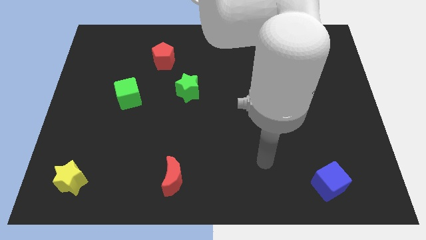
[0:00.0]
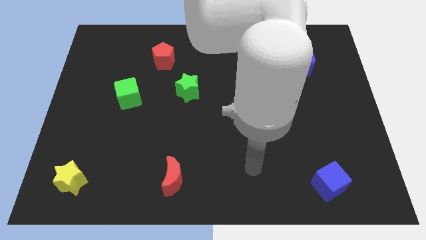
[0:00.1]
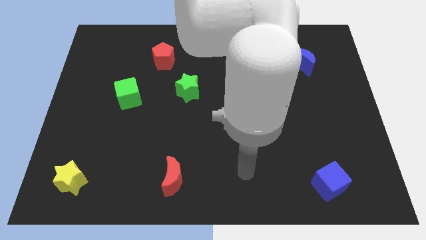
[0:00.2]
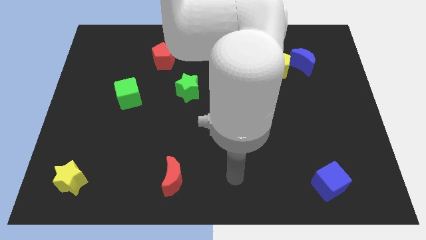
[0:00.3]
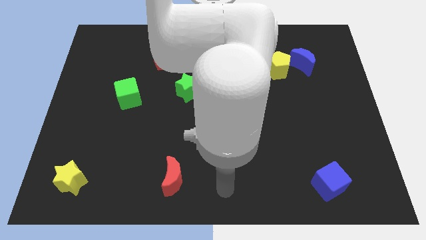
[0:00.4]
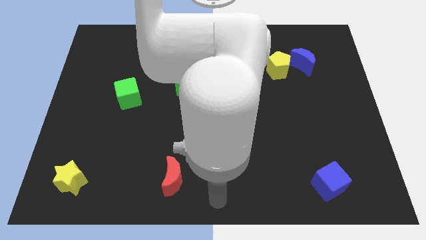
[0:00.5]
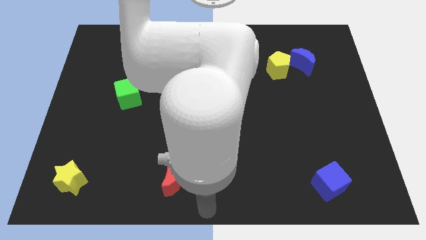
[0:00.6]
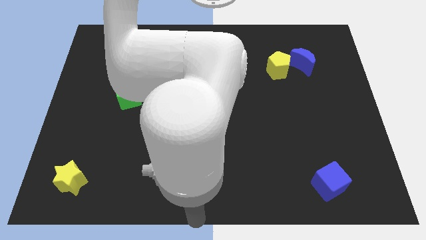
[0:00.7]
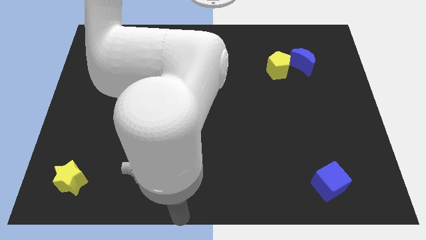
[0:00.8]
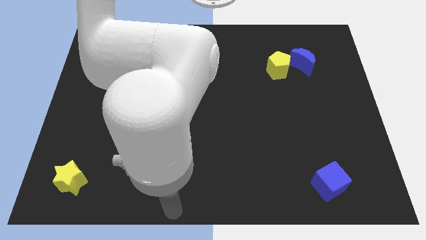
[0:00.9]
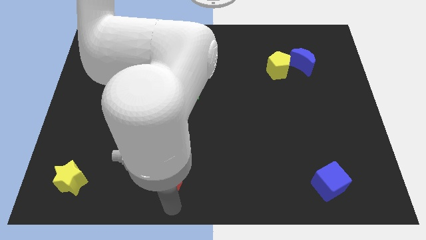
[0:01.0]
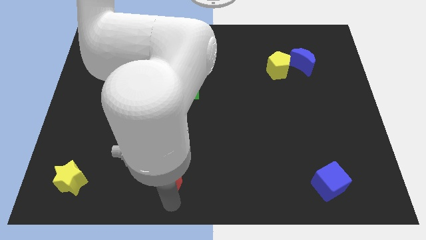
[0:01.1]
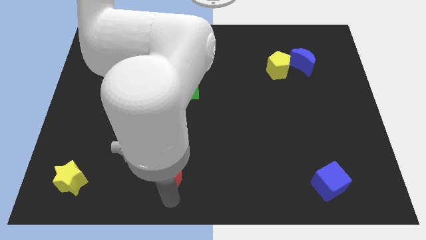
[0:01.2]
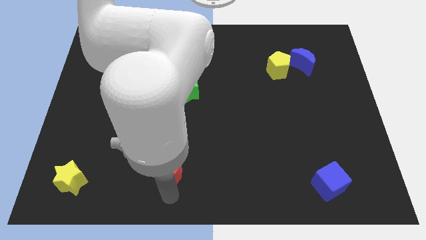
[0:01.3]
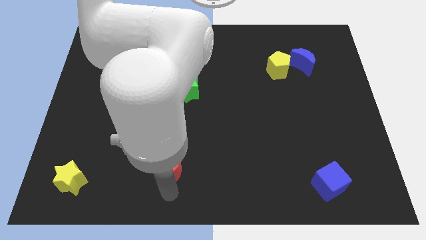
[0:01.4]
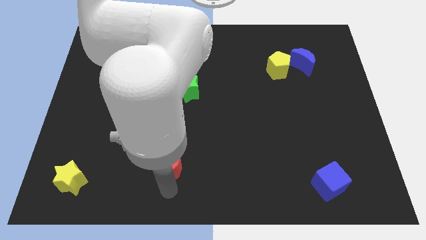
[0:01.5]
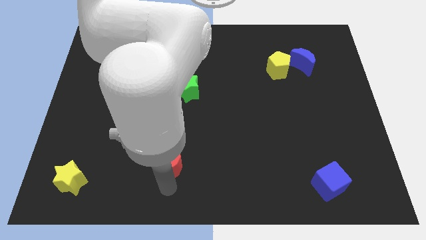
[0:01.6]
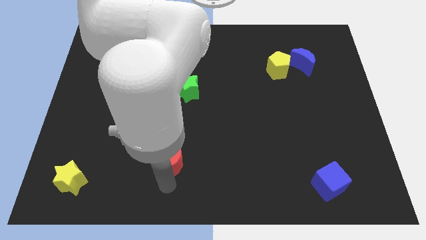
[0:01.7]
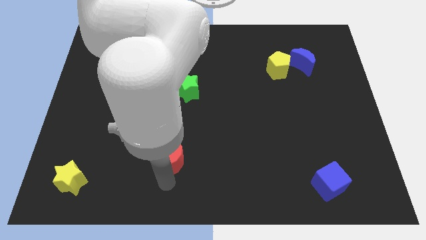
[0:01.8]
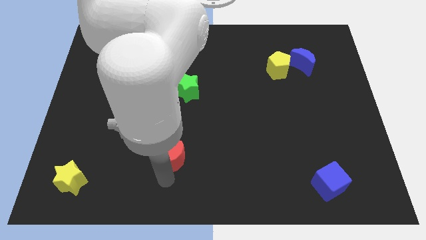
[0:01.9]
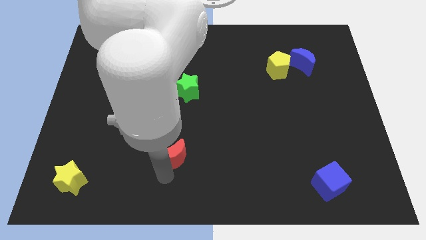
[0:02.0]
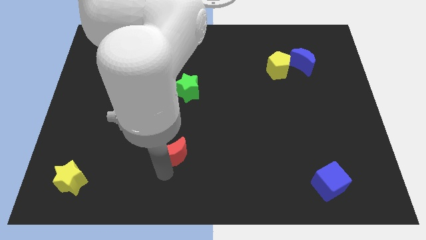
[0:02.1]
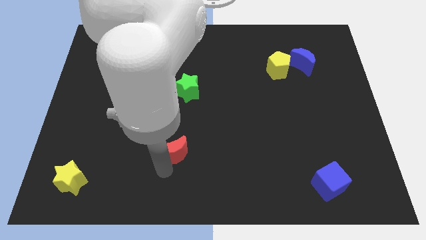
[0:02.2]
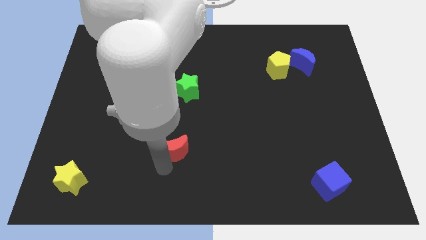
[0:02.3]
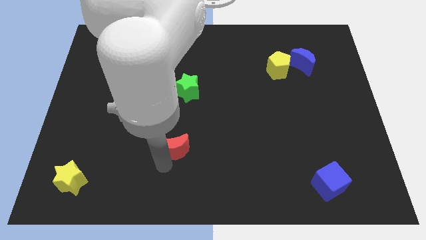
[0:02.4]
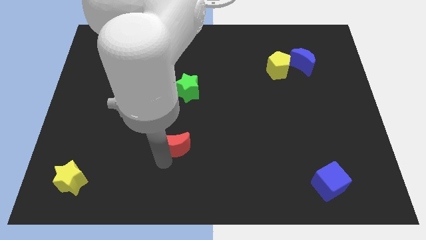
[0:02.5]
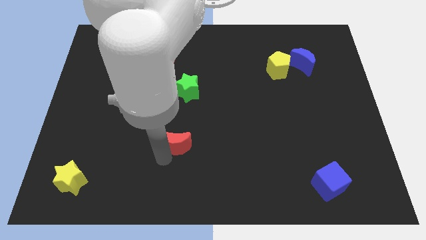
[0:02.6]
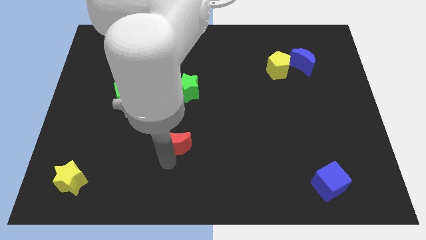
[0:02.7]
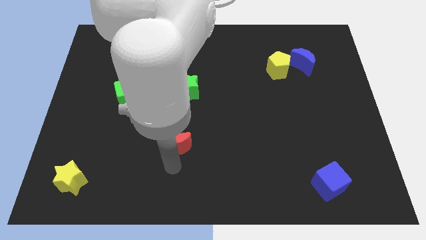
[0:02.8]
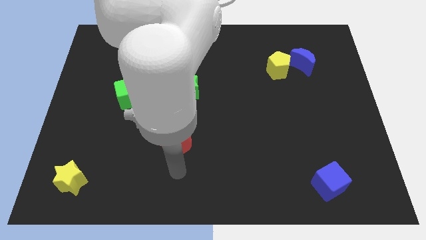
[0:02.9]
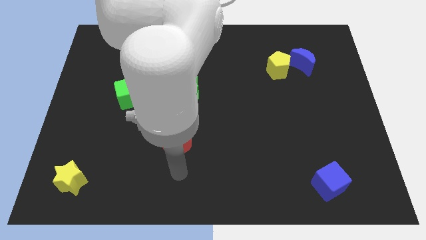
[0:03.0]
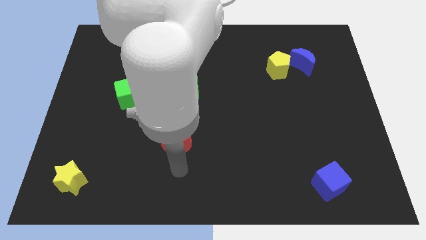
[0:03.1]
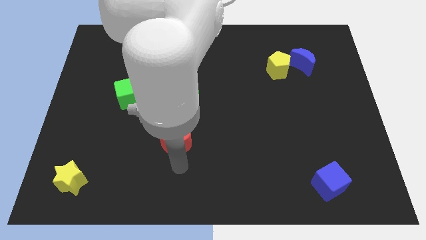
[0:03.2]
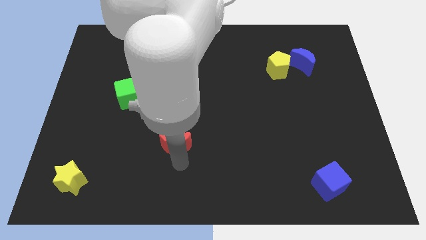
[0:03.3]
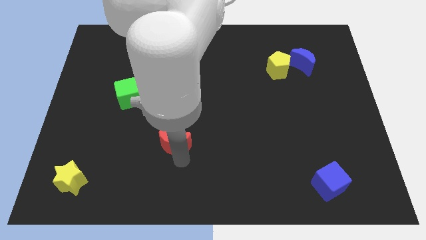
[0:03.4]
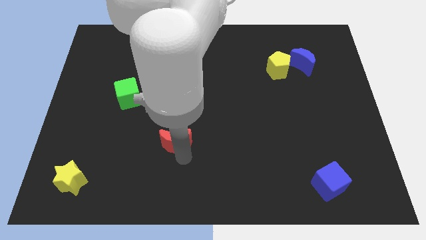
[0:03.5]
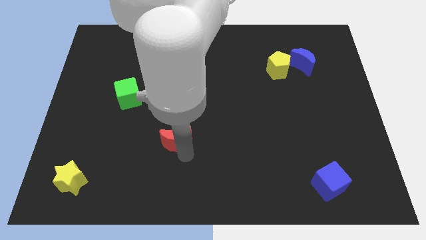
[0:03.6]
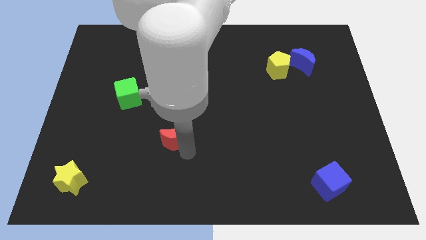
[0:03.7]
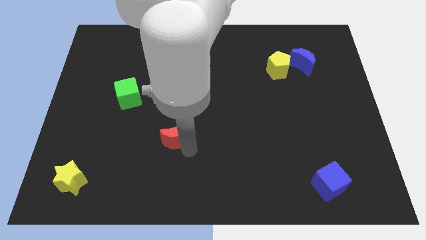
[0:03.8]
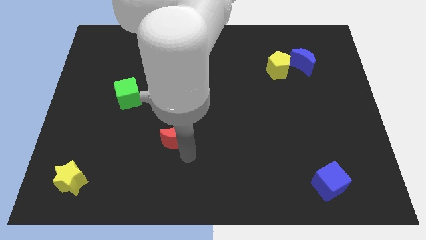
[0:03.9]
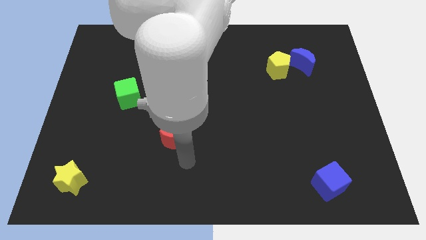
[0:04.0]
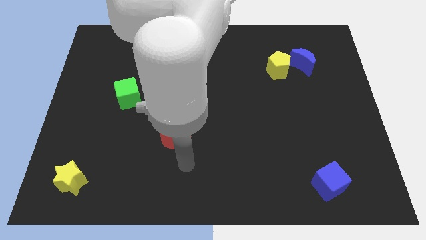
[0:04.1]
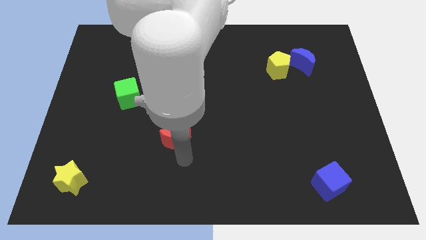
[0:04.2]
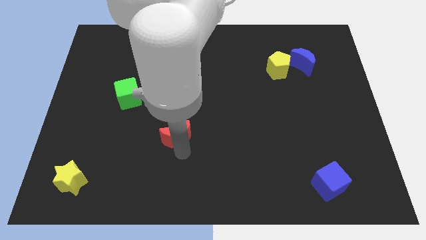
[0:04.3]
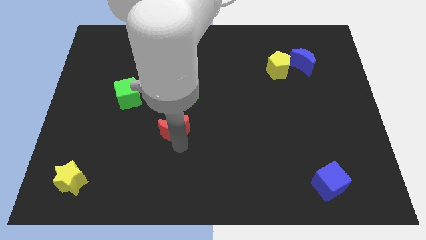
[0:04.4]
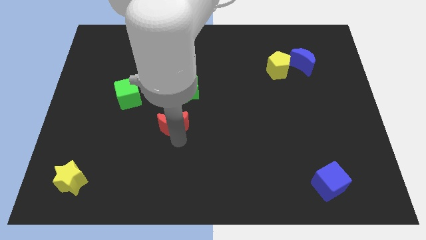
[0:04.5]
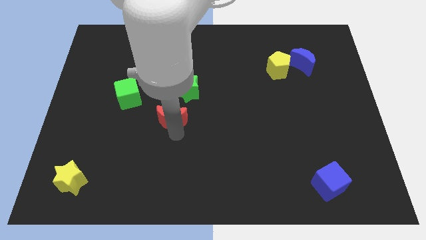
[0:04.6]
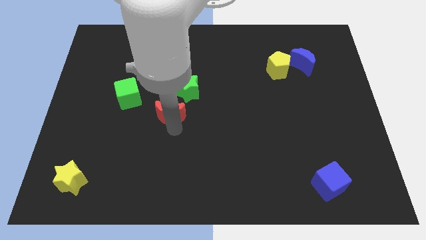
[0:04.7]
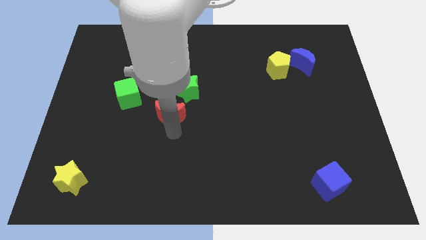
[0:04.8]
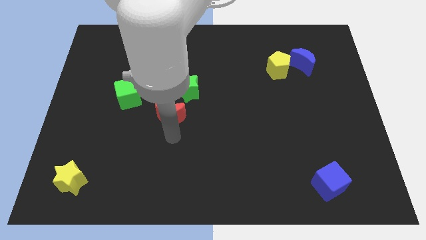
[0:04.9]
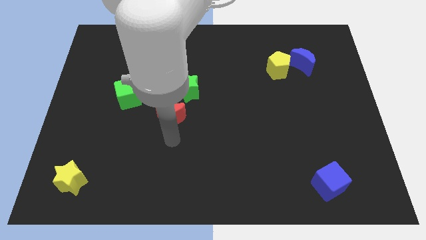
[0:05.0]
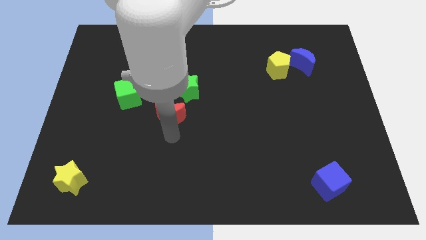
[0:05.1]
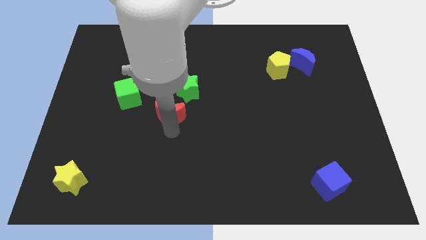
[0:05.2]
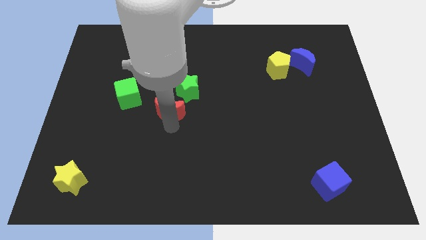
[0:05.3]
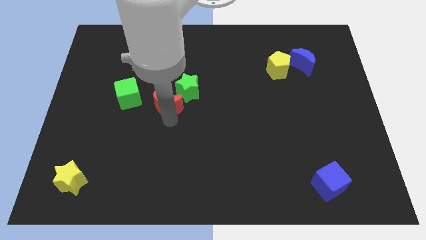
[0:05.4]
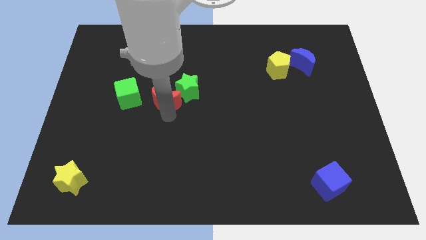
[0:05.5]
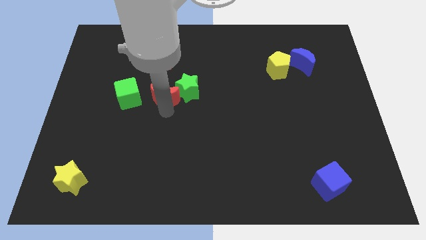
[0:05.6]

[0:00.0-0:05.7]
slide the red moon up

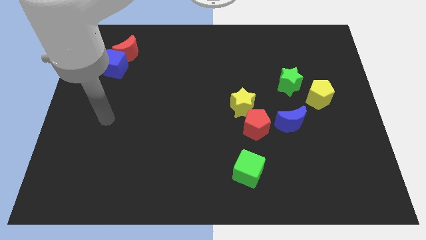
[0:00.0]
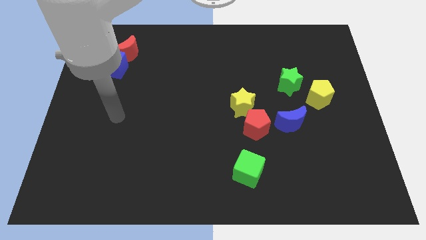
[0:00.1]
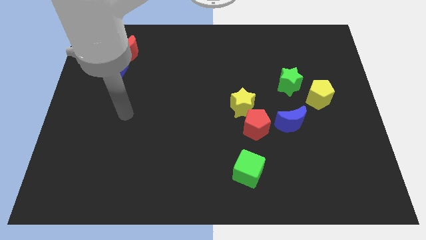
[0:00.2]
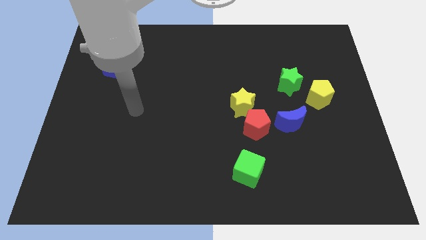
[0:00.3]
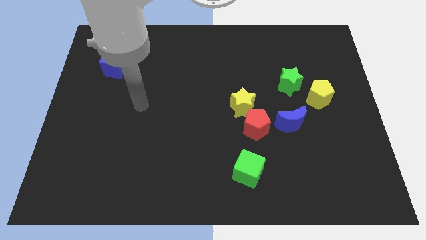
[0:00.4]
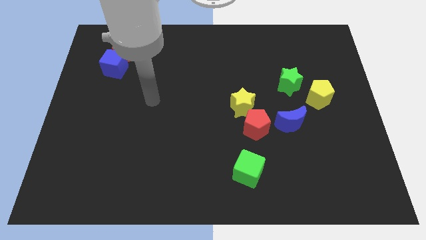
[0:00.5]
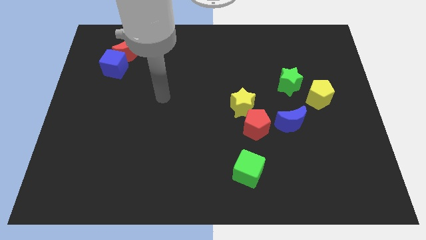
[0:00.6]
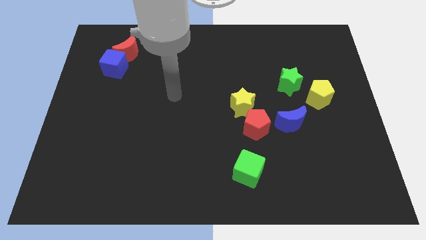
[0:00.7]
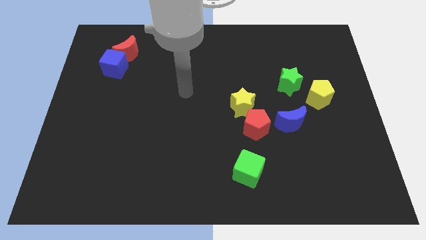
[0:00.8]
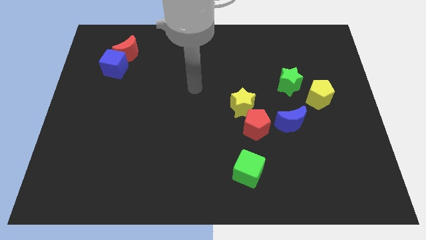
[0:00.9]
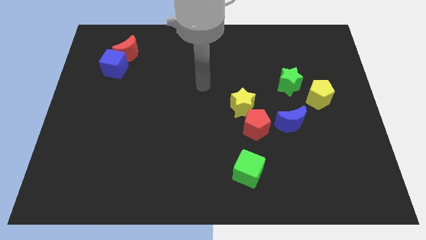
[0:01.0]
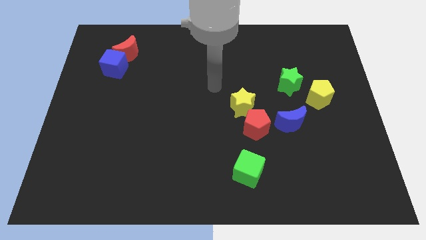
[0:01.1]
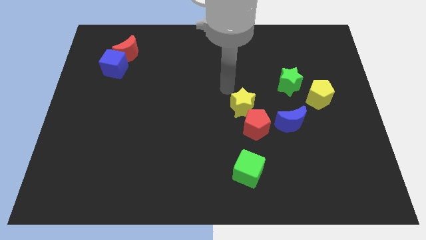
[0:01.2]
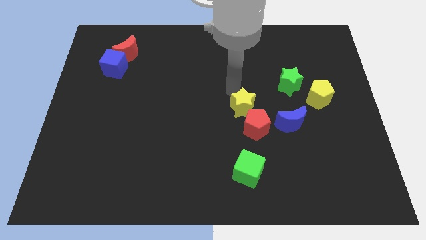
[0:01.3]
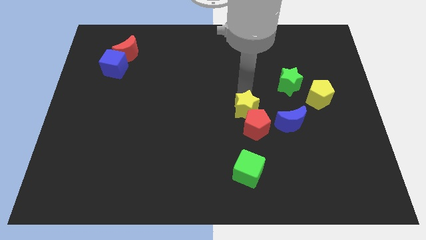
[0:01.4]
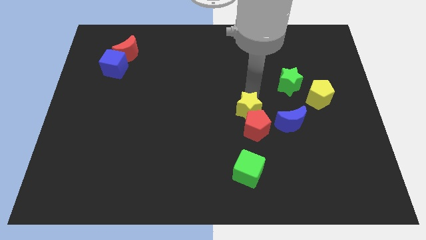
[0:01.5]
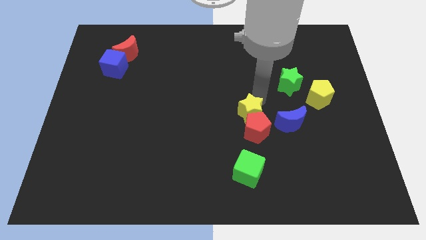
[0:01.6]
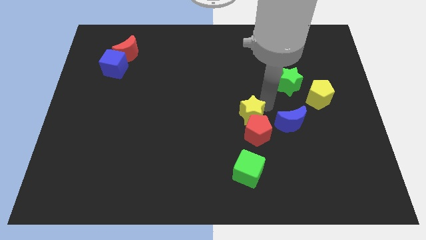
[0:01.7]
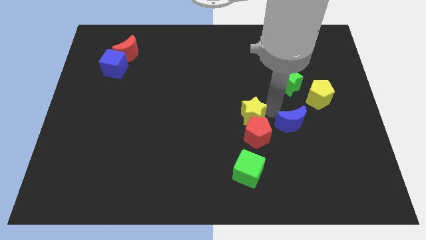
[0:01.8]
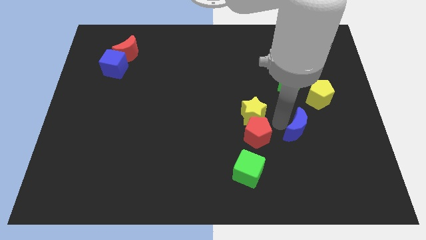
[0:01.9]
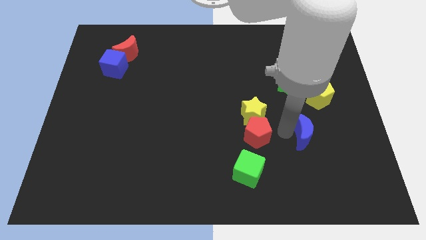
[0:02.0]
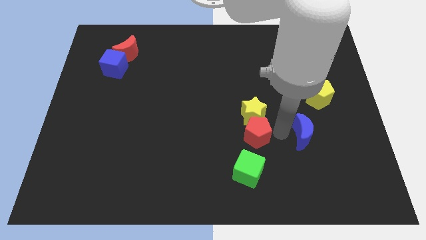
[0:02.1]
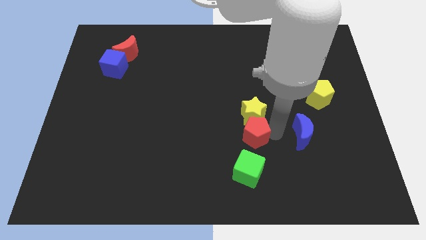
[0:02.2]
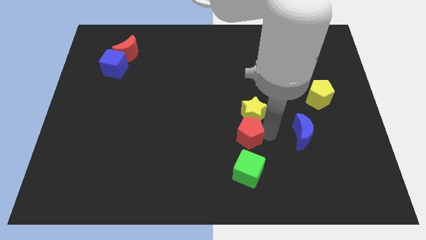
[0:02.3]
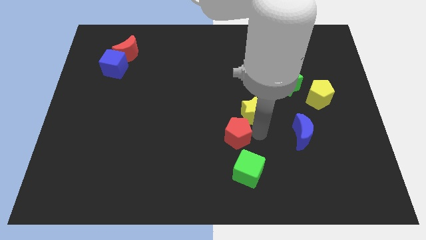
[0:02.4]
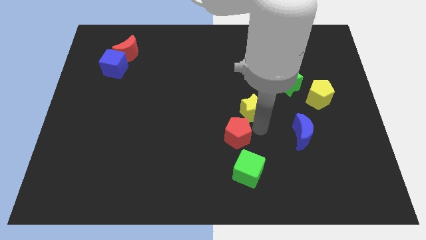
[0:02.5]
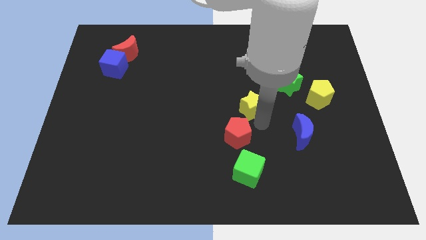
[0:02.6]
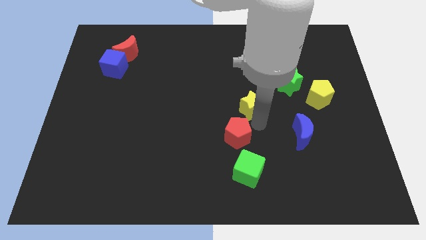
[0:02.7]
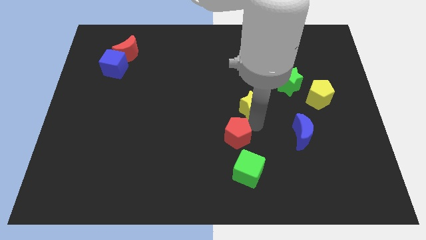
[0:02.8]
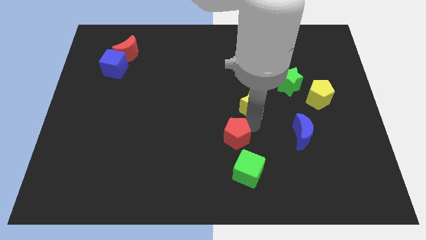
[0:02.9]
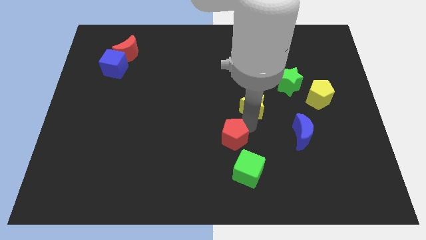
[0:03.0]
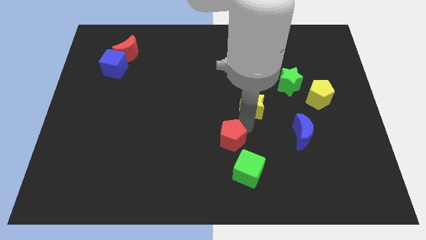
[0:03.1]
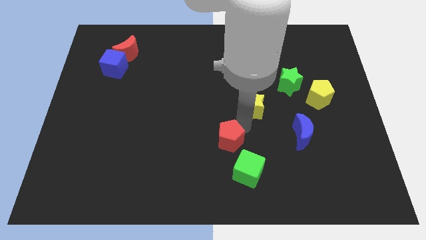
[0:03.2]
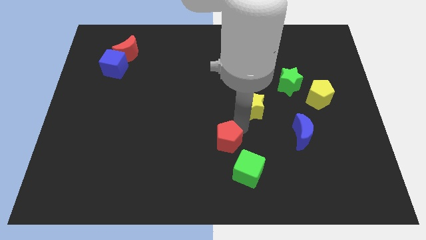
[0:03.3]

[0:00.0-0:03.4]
move the red pentagon downwards and then to the left slightly
